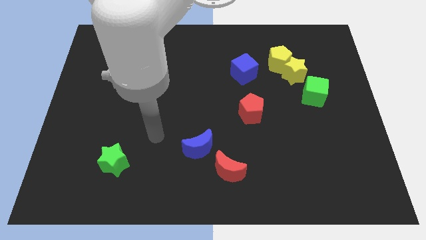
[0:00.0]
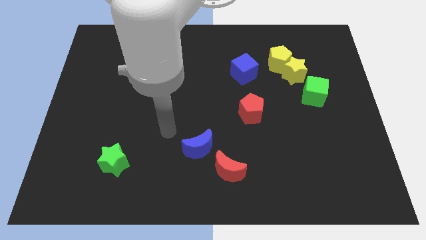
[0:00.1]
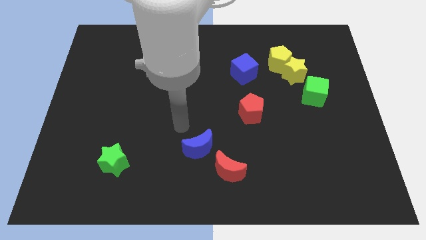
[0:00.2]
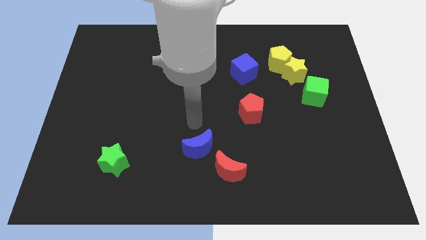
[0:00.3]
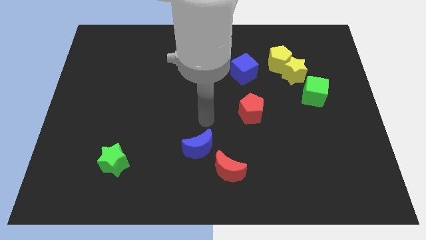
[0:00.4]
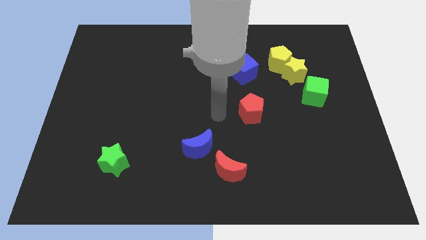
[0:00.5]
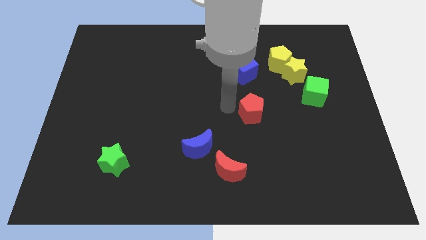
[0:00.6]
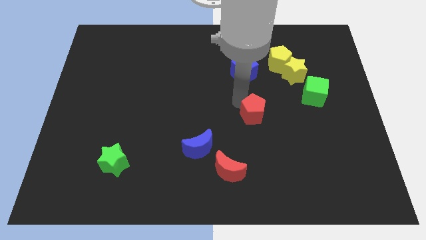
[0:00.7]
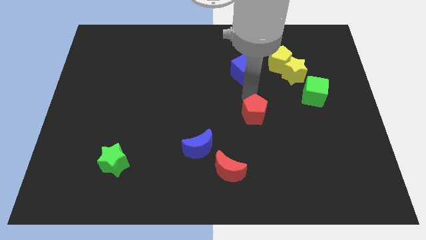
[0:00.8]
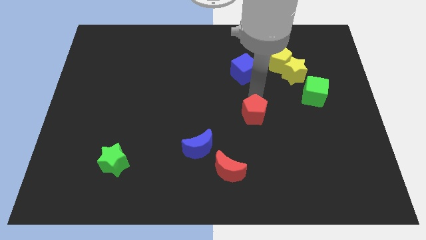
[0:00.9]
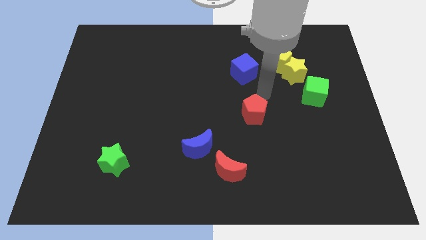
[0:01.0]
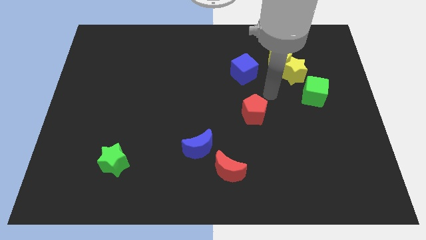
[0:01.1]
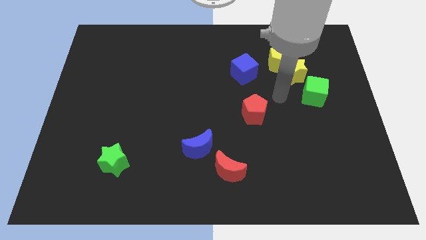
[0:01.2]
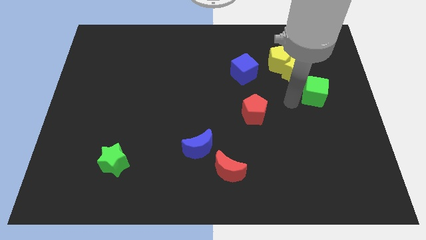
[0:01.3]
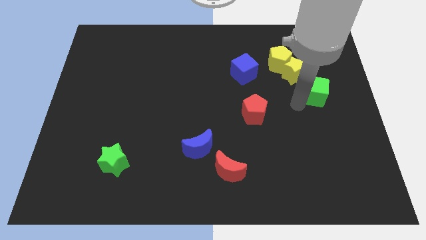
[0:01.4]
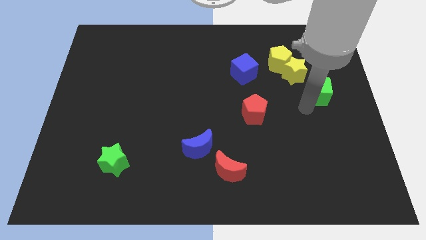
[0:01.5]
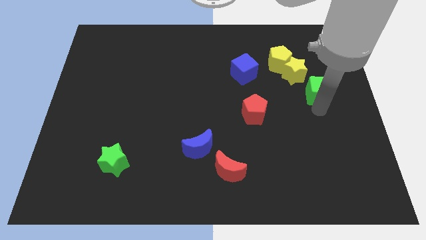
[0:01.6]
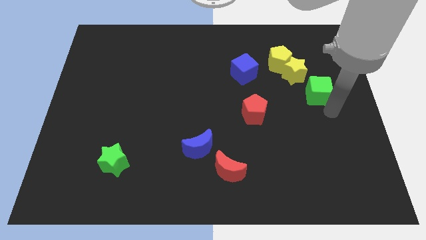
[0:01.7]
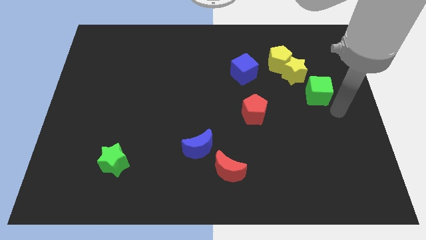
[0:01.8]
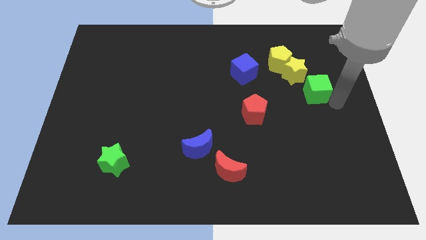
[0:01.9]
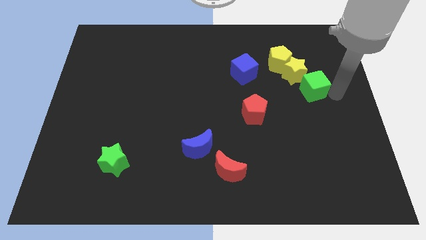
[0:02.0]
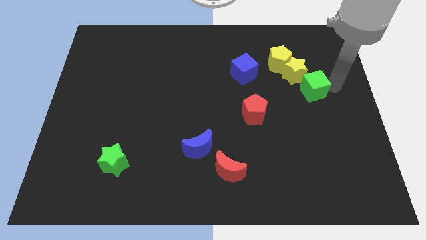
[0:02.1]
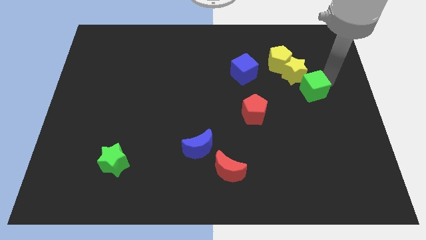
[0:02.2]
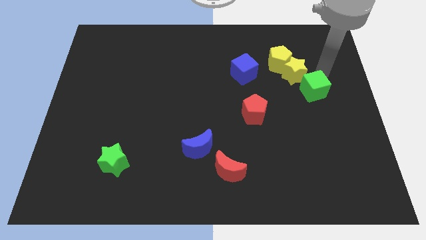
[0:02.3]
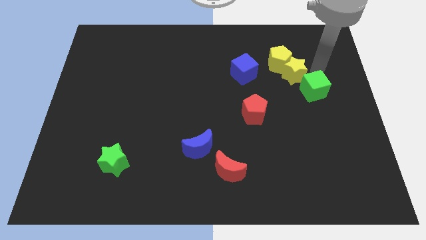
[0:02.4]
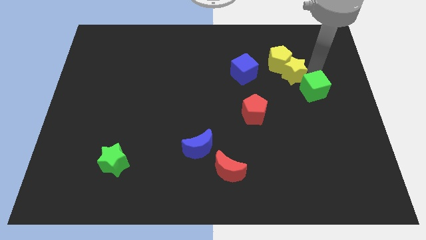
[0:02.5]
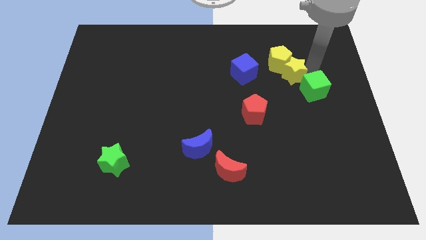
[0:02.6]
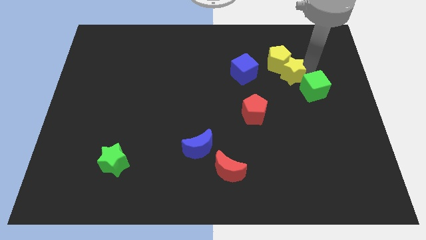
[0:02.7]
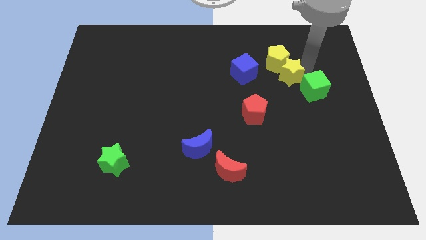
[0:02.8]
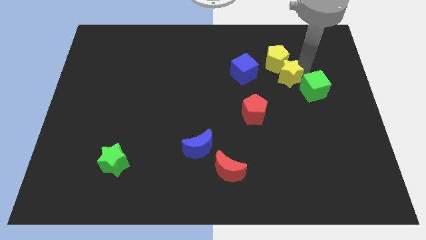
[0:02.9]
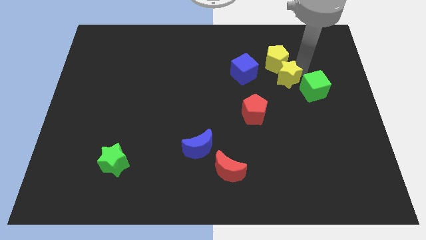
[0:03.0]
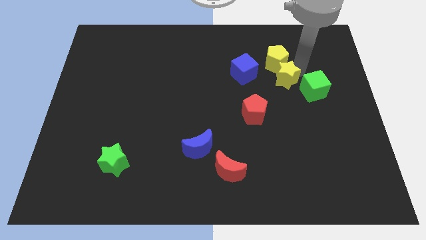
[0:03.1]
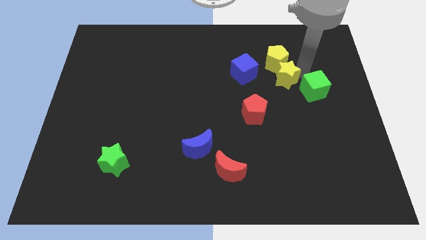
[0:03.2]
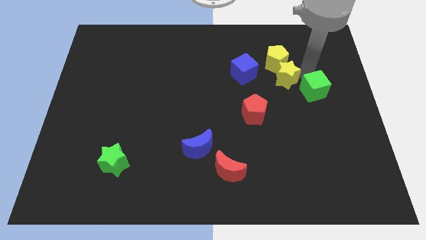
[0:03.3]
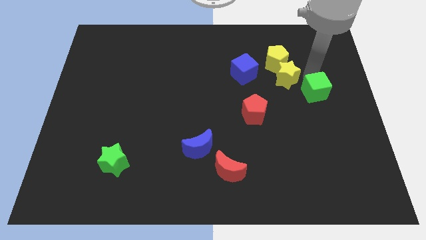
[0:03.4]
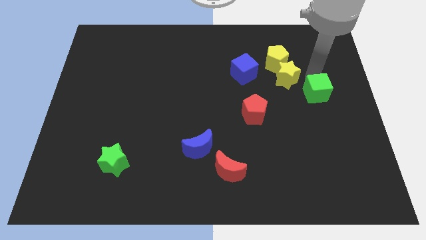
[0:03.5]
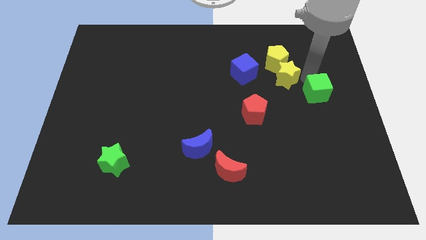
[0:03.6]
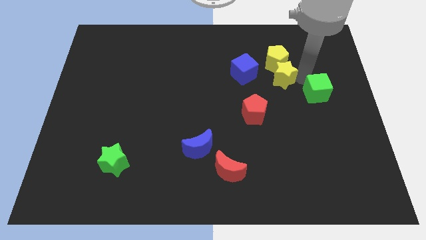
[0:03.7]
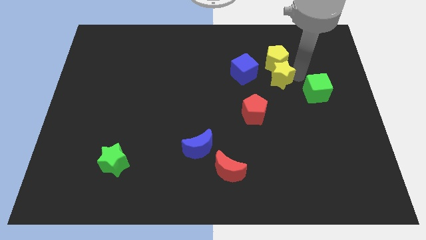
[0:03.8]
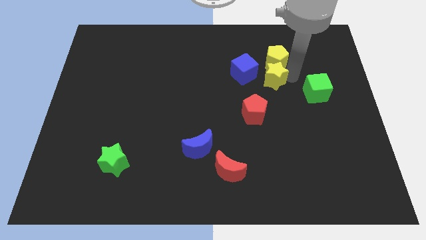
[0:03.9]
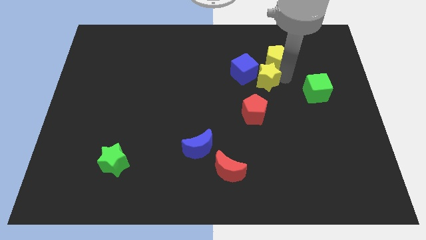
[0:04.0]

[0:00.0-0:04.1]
move the yellow star a little bit left

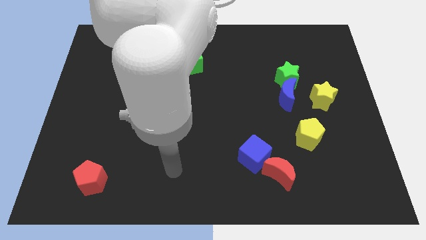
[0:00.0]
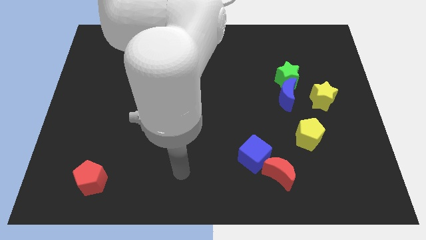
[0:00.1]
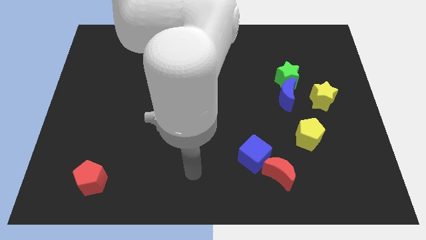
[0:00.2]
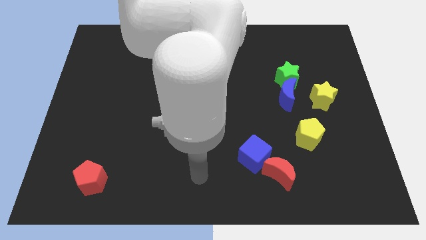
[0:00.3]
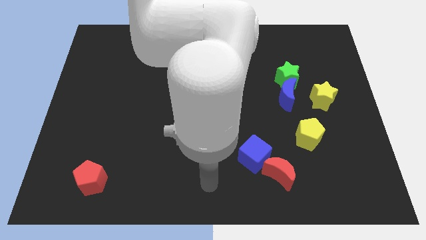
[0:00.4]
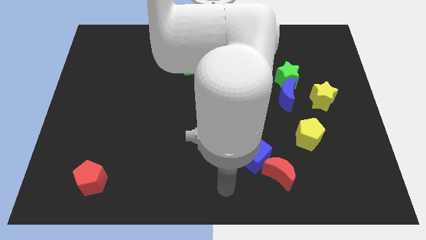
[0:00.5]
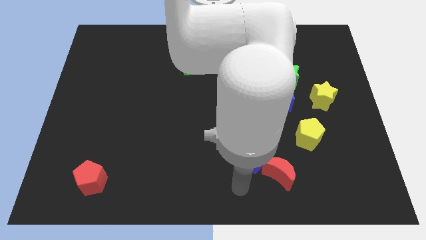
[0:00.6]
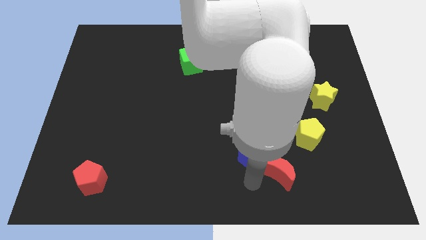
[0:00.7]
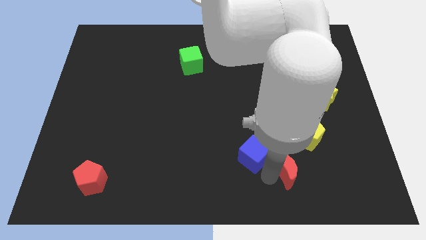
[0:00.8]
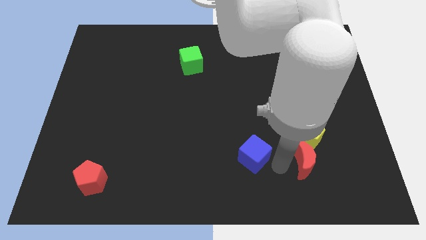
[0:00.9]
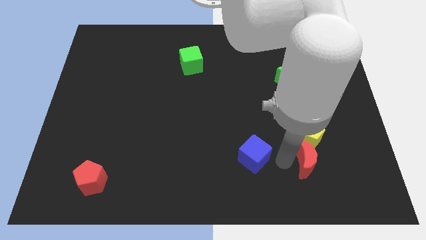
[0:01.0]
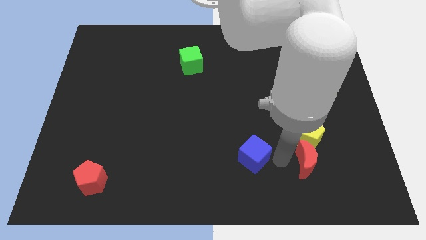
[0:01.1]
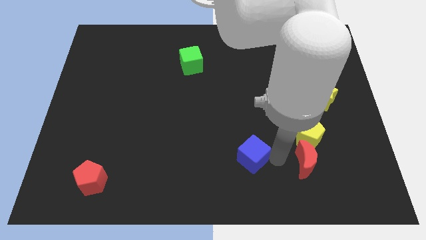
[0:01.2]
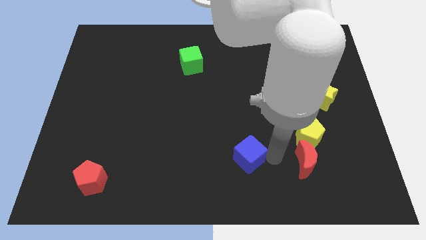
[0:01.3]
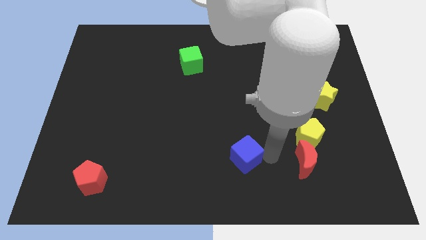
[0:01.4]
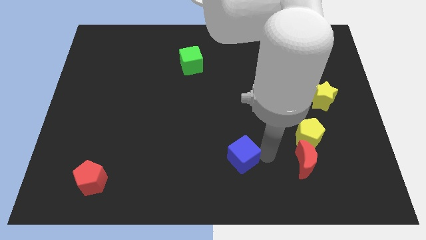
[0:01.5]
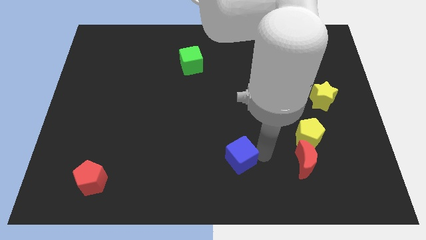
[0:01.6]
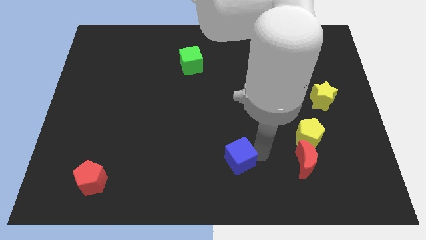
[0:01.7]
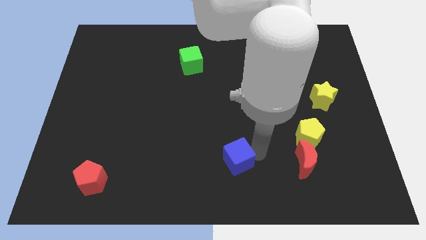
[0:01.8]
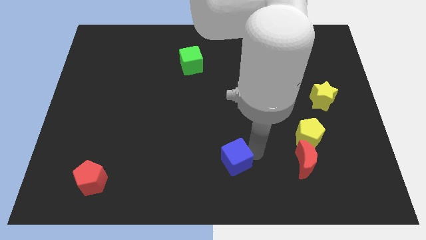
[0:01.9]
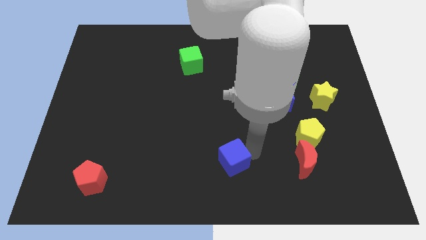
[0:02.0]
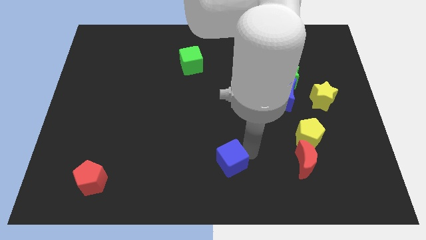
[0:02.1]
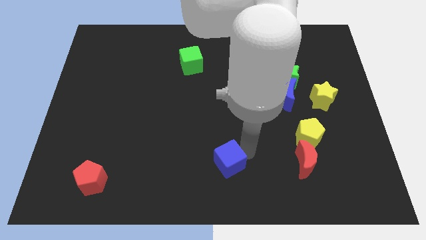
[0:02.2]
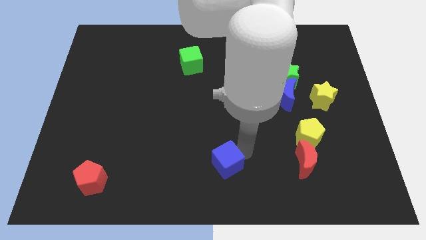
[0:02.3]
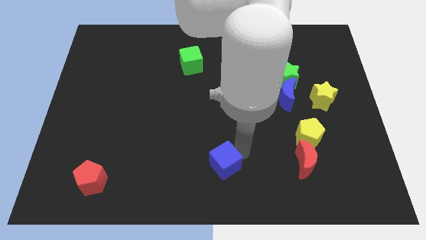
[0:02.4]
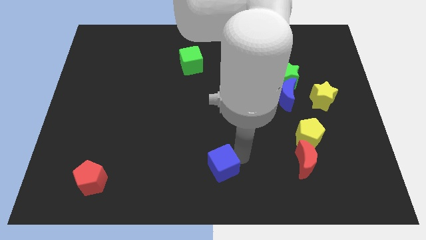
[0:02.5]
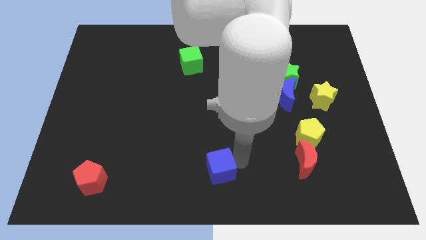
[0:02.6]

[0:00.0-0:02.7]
move the blue cube left slightly

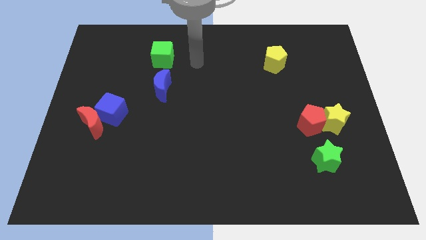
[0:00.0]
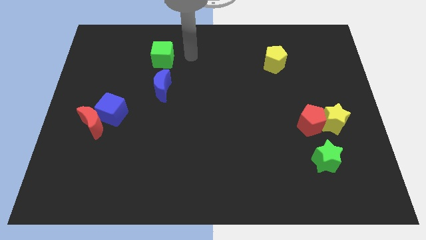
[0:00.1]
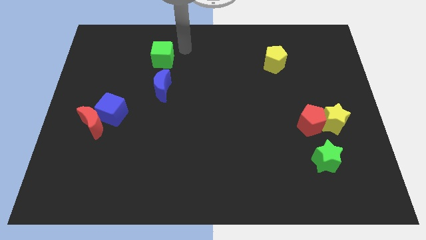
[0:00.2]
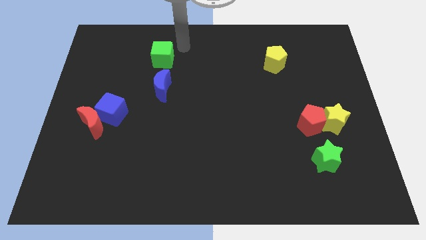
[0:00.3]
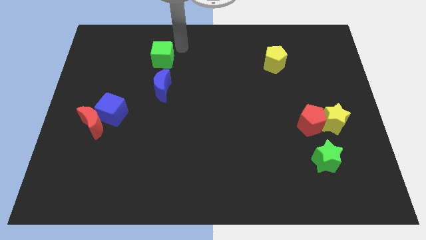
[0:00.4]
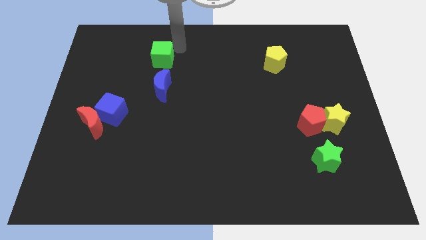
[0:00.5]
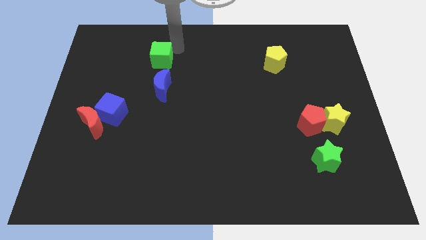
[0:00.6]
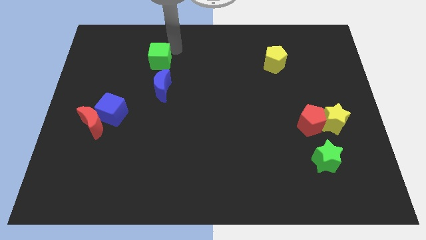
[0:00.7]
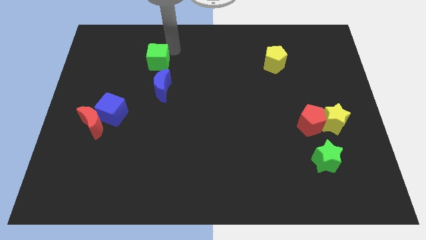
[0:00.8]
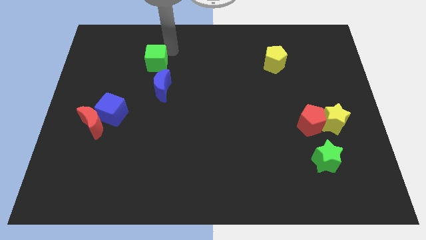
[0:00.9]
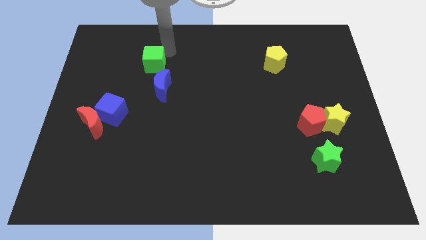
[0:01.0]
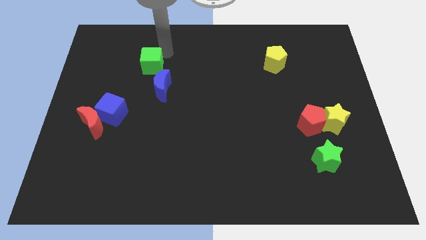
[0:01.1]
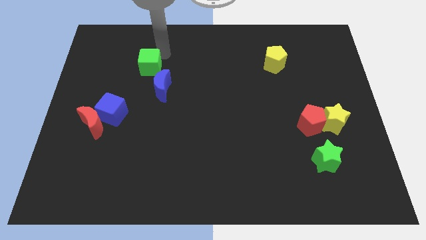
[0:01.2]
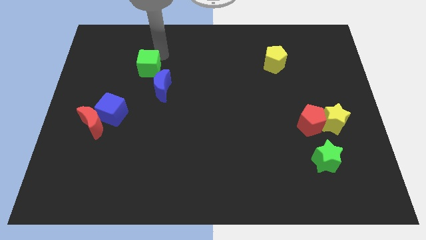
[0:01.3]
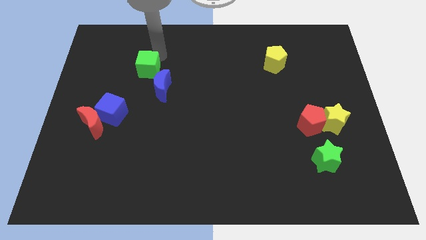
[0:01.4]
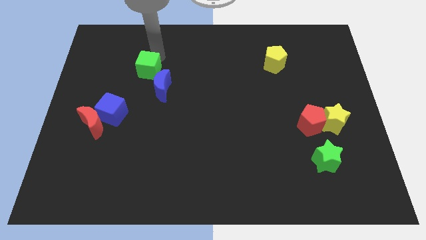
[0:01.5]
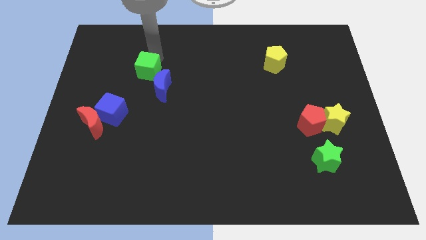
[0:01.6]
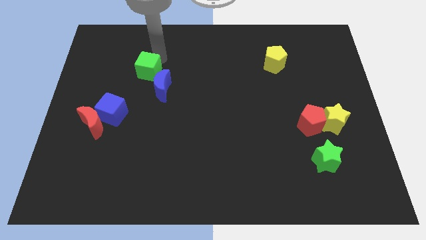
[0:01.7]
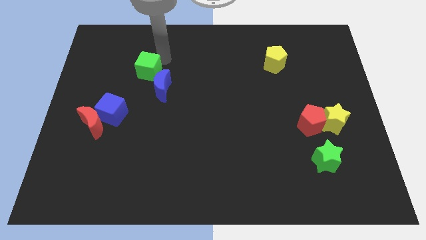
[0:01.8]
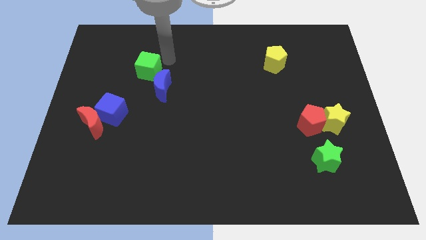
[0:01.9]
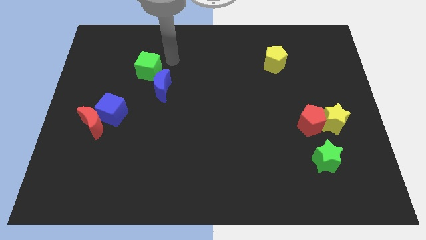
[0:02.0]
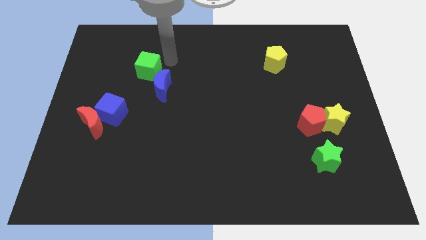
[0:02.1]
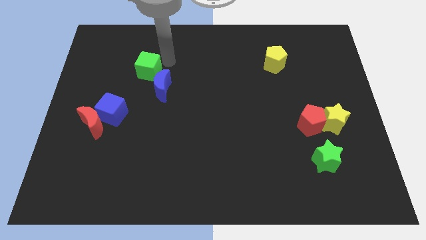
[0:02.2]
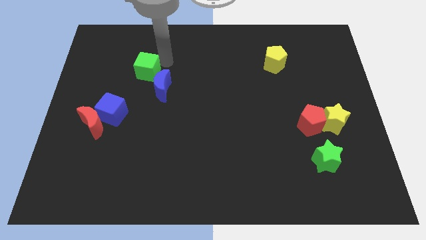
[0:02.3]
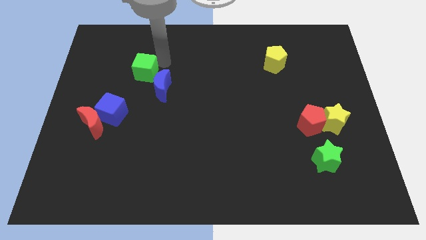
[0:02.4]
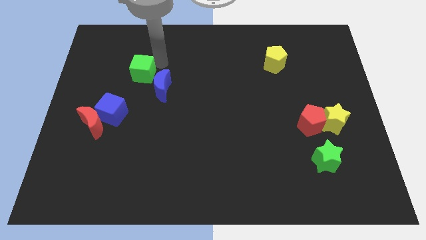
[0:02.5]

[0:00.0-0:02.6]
slide the green cube down and left a little bit
